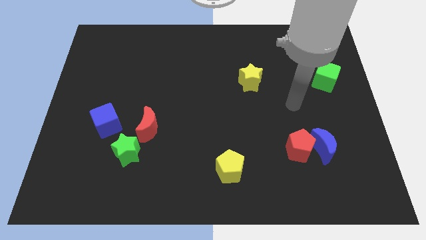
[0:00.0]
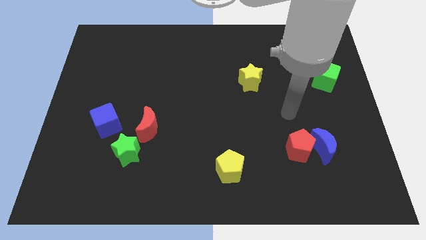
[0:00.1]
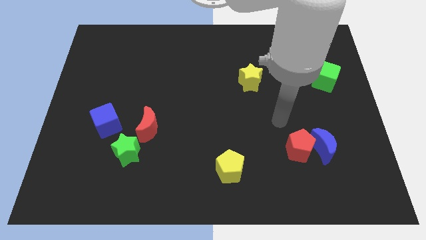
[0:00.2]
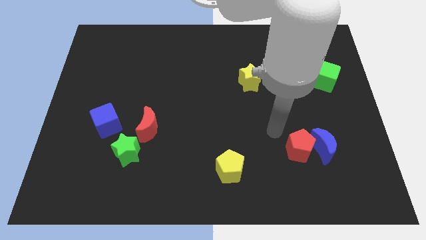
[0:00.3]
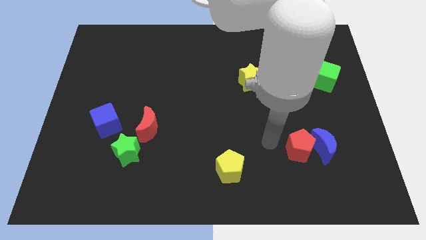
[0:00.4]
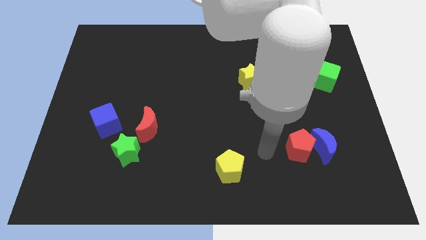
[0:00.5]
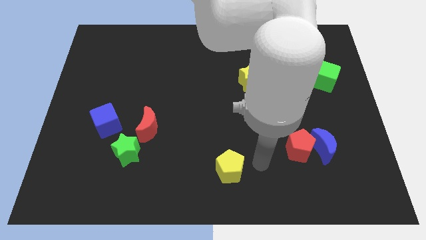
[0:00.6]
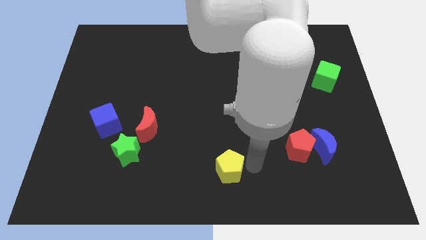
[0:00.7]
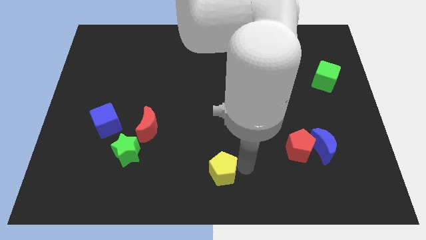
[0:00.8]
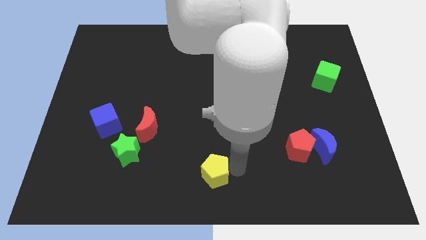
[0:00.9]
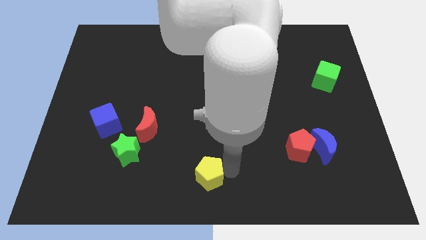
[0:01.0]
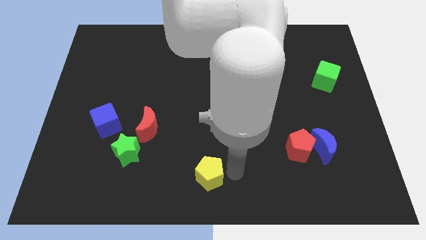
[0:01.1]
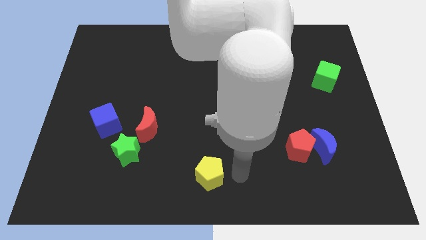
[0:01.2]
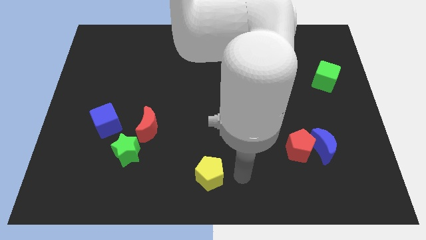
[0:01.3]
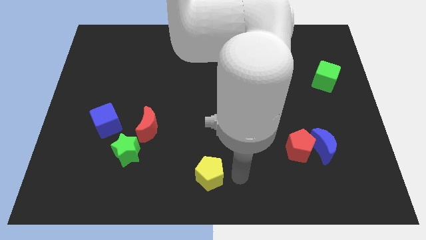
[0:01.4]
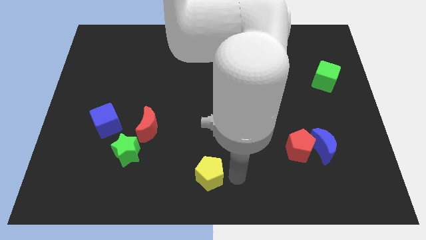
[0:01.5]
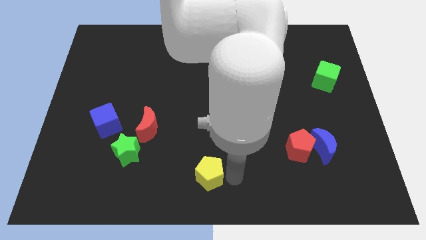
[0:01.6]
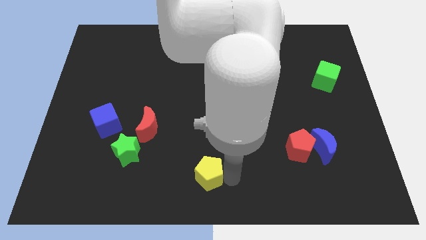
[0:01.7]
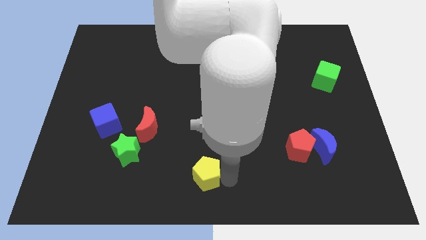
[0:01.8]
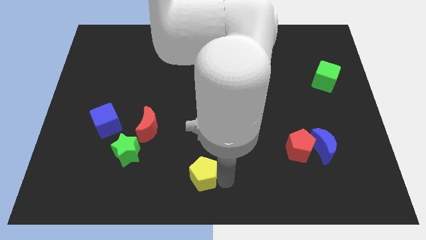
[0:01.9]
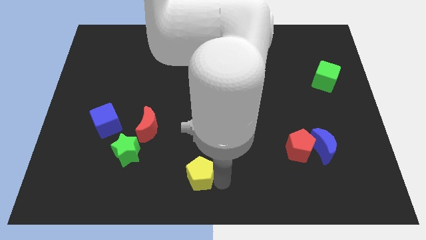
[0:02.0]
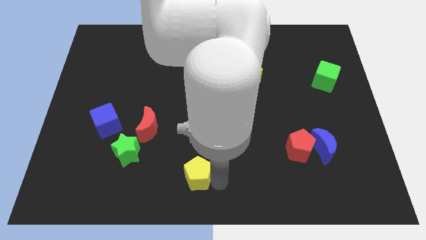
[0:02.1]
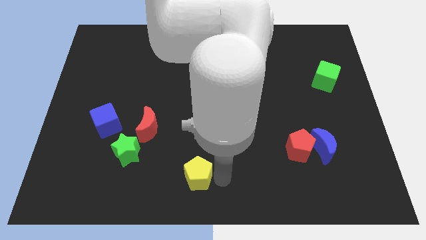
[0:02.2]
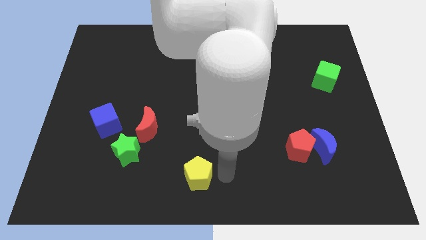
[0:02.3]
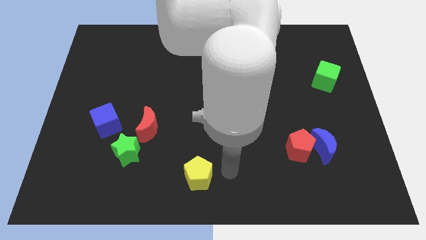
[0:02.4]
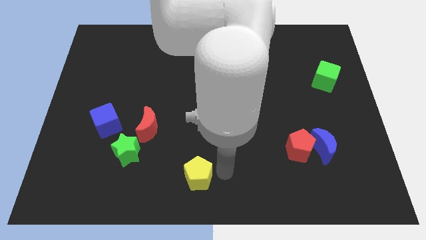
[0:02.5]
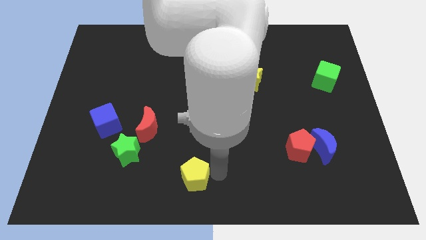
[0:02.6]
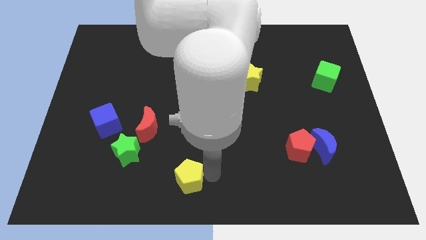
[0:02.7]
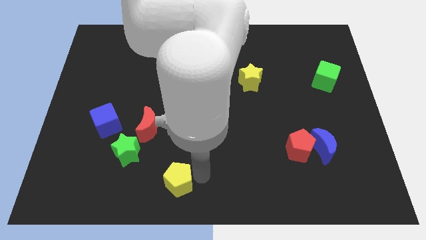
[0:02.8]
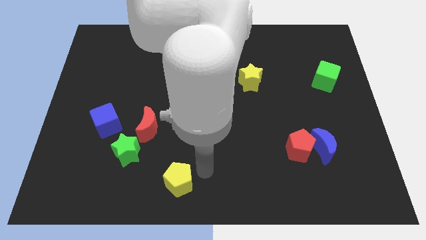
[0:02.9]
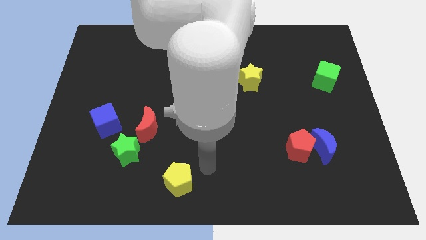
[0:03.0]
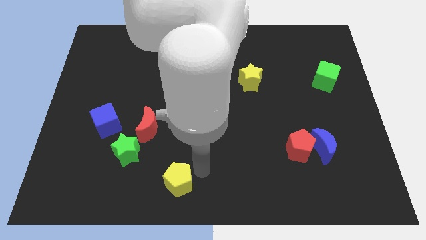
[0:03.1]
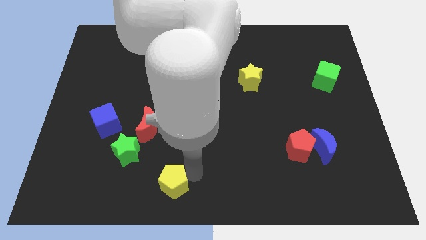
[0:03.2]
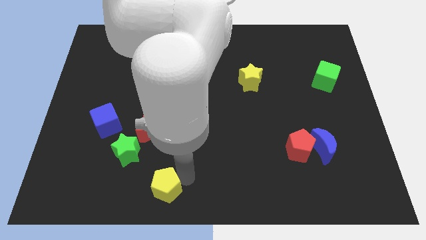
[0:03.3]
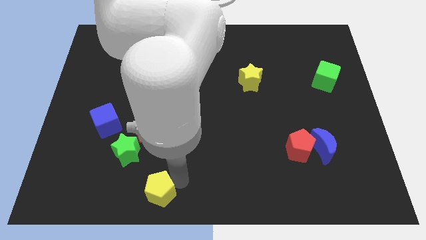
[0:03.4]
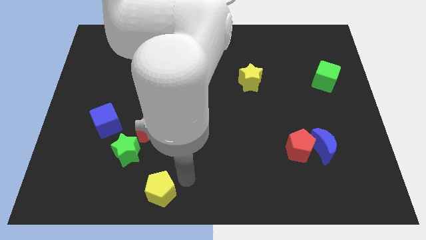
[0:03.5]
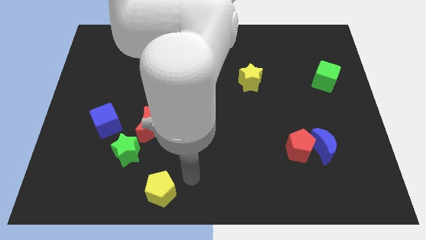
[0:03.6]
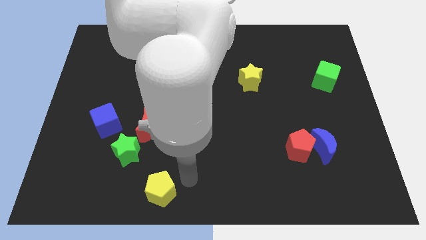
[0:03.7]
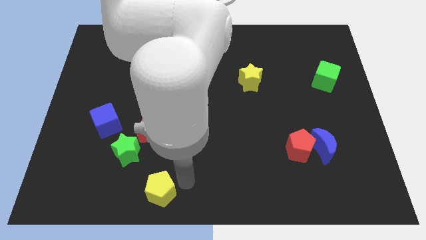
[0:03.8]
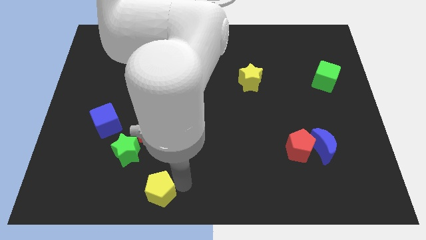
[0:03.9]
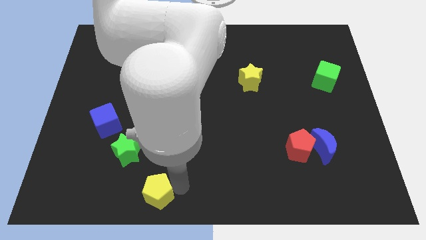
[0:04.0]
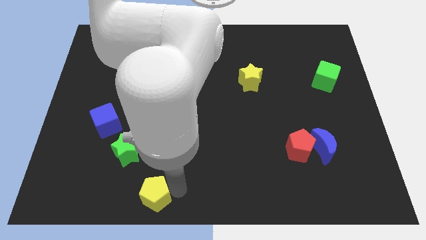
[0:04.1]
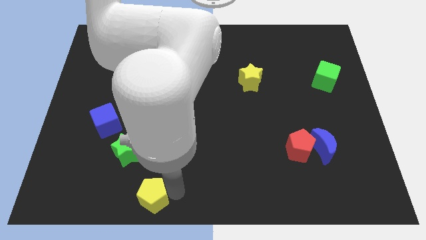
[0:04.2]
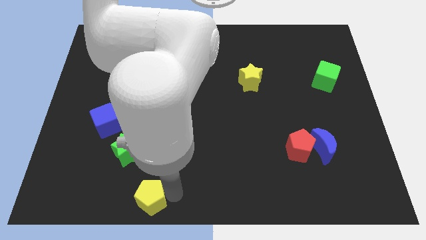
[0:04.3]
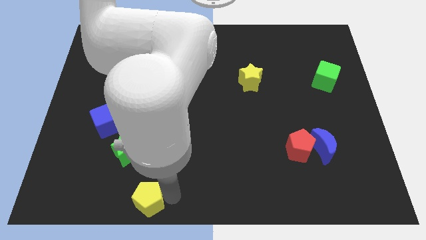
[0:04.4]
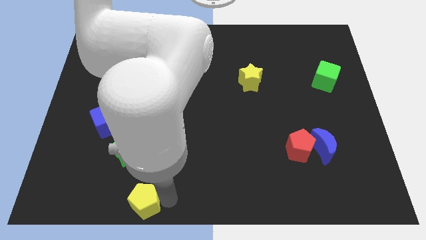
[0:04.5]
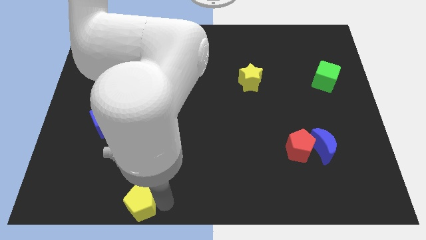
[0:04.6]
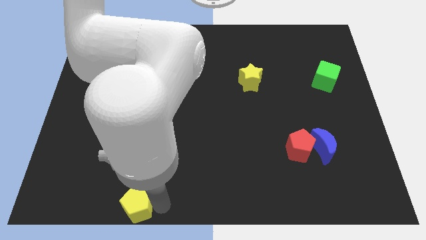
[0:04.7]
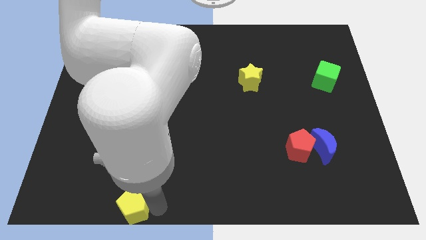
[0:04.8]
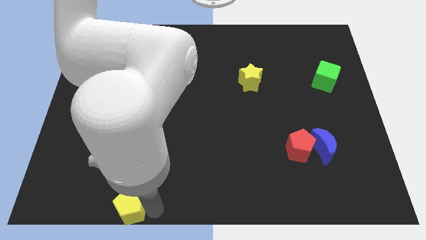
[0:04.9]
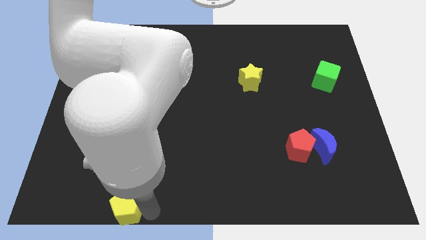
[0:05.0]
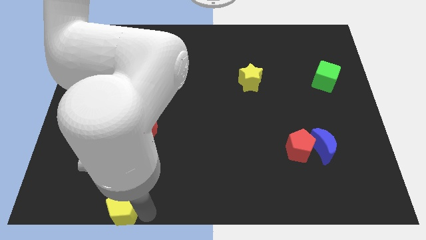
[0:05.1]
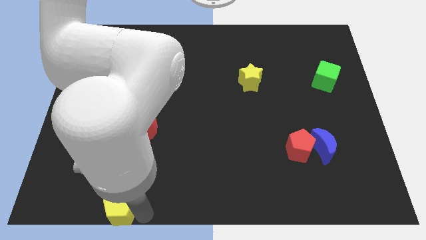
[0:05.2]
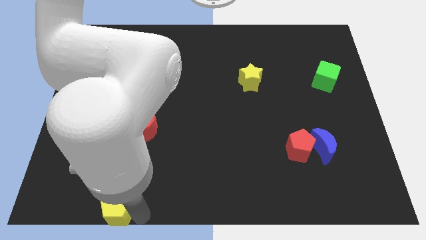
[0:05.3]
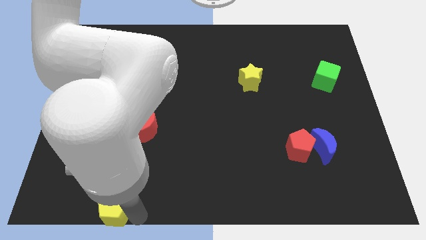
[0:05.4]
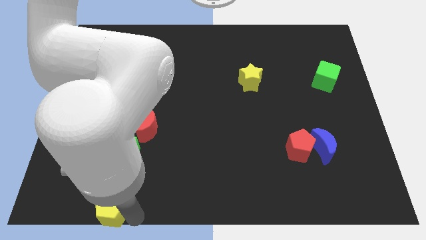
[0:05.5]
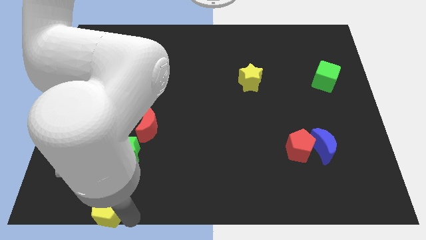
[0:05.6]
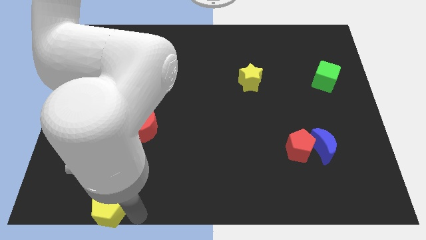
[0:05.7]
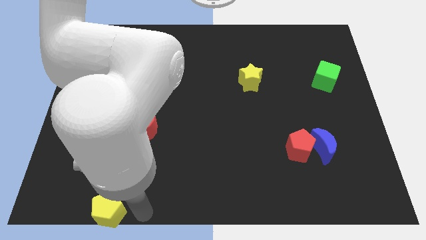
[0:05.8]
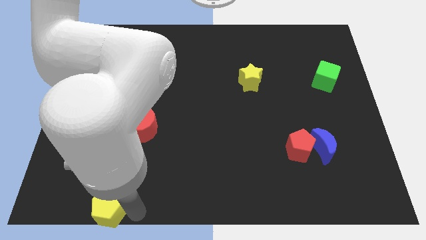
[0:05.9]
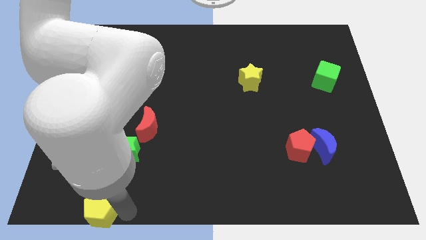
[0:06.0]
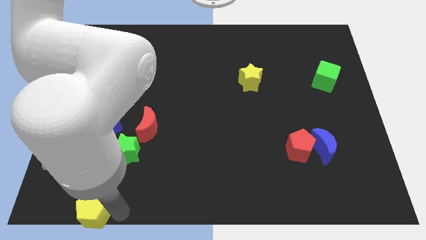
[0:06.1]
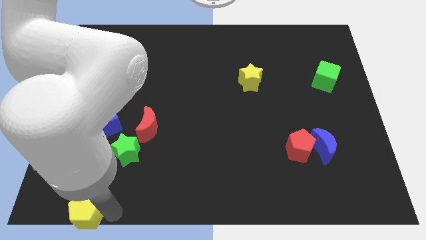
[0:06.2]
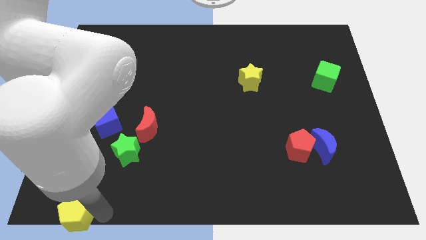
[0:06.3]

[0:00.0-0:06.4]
slide the yellow pentagon to the lower left corner

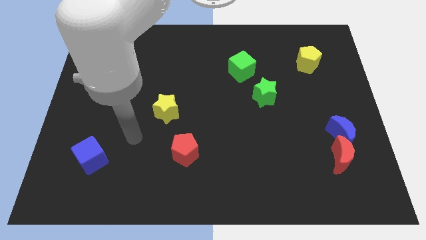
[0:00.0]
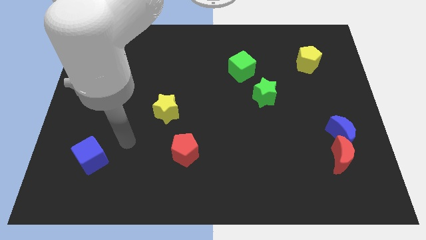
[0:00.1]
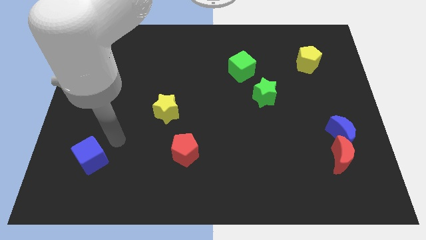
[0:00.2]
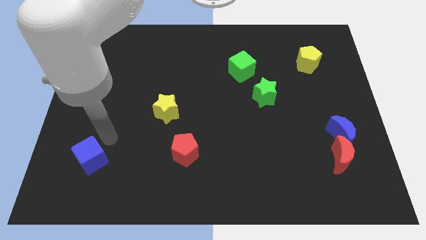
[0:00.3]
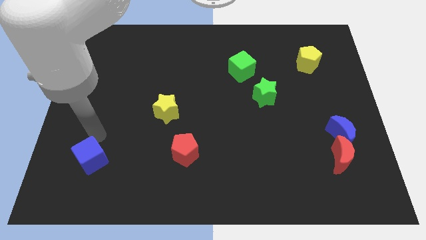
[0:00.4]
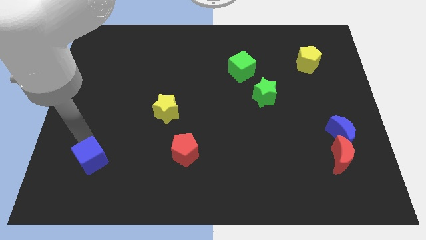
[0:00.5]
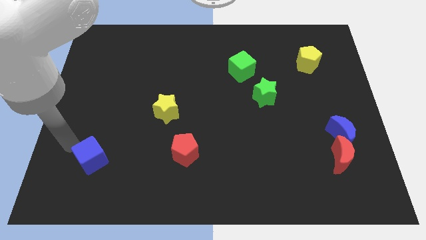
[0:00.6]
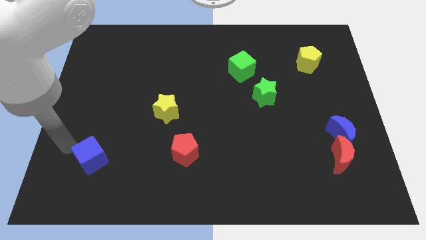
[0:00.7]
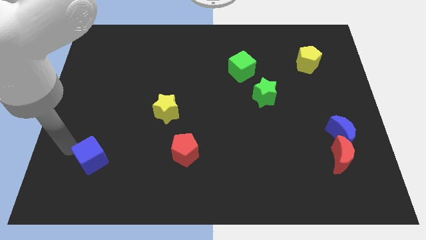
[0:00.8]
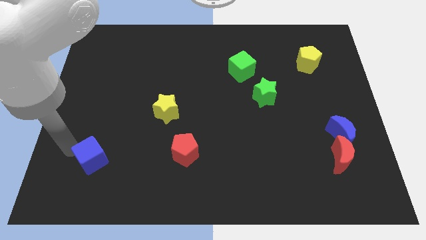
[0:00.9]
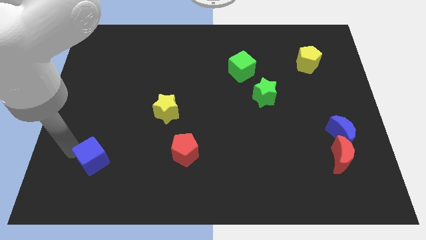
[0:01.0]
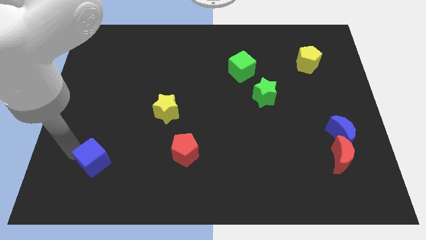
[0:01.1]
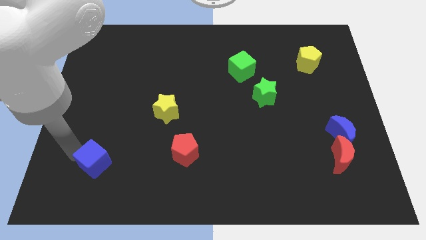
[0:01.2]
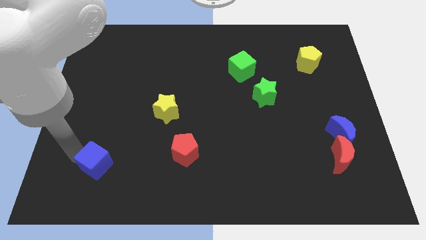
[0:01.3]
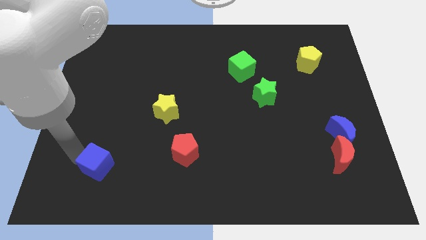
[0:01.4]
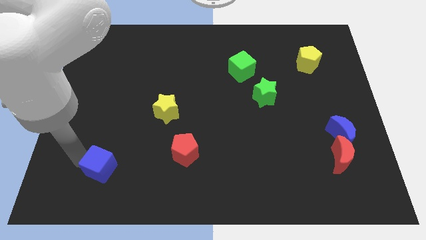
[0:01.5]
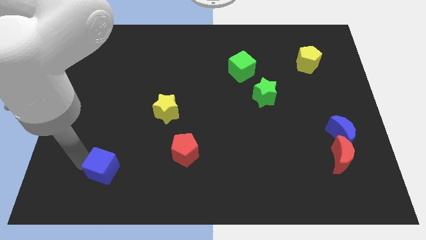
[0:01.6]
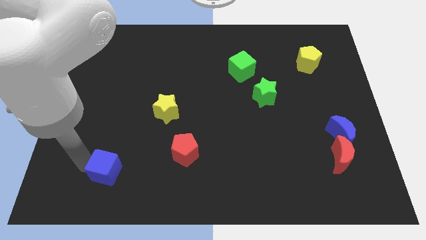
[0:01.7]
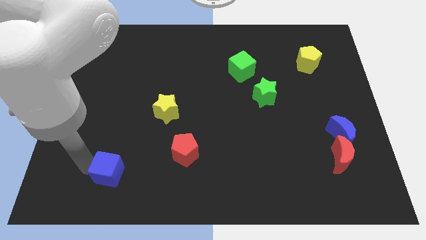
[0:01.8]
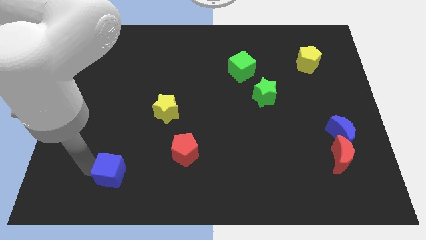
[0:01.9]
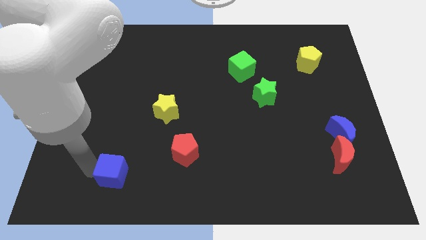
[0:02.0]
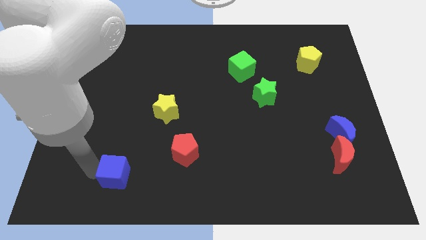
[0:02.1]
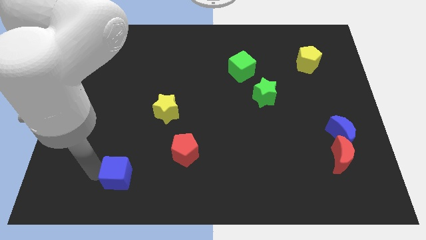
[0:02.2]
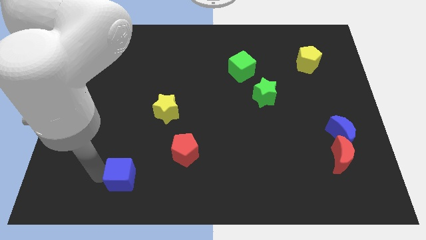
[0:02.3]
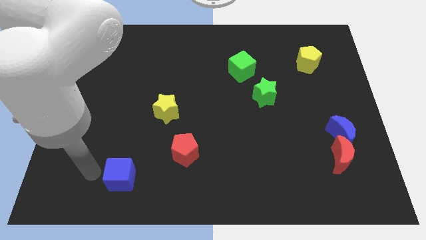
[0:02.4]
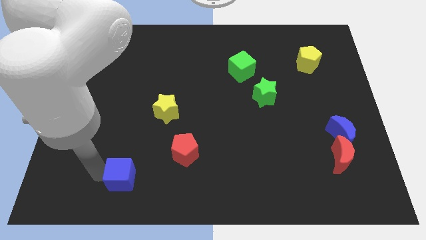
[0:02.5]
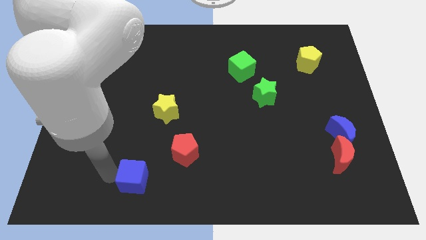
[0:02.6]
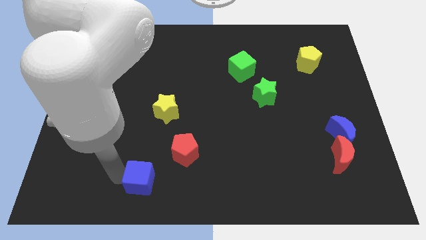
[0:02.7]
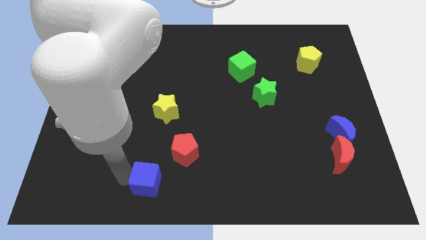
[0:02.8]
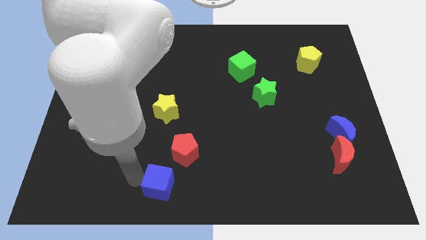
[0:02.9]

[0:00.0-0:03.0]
push the blue cube to the bottom
